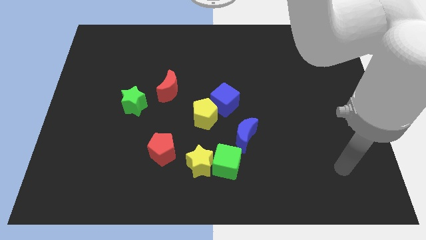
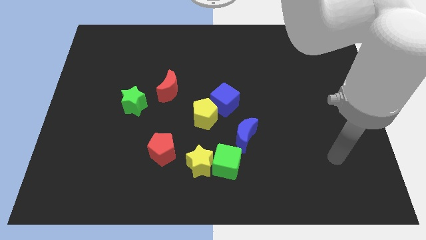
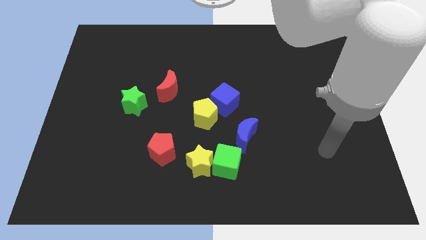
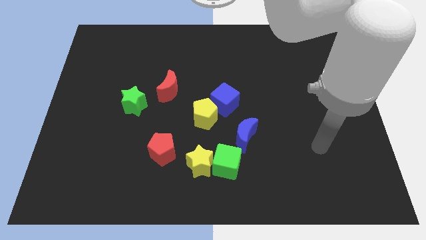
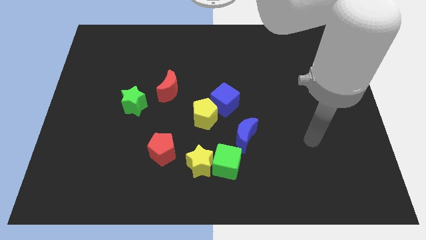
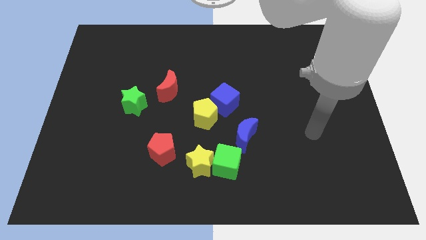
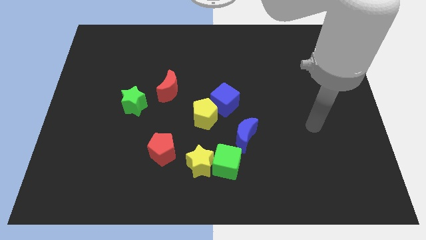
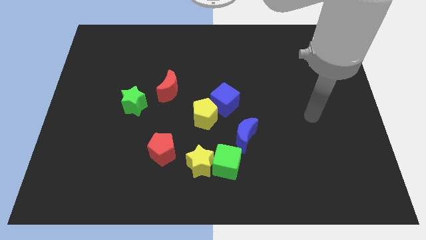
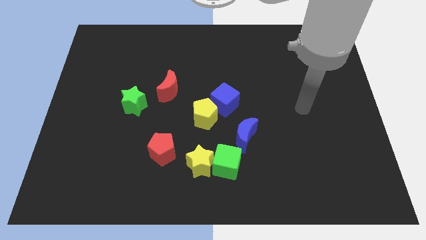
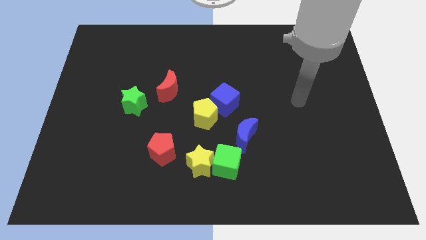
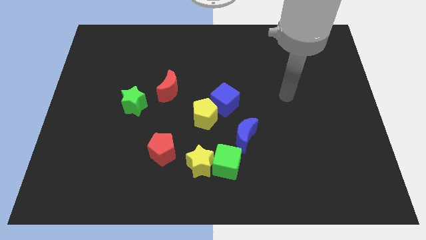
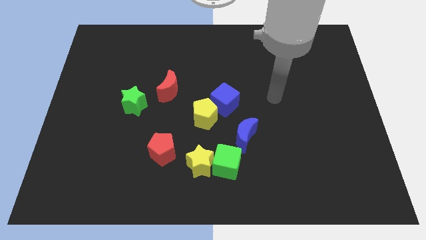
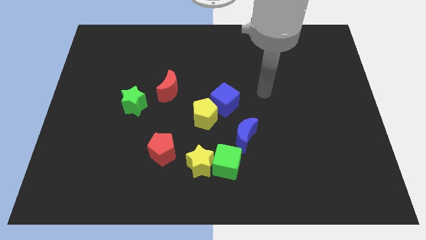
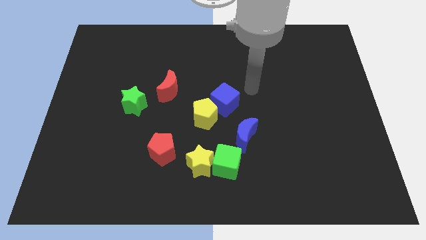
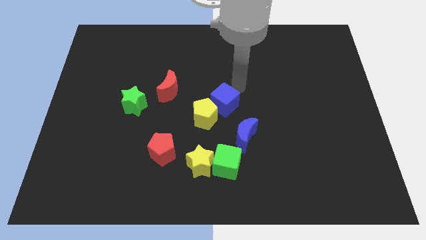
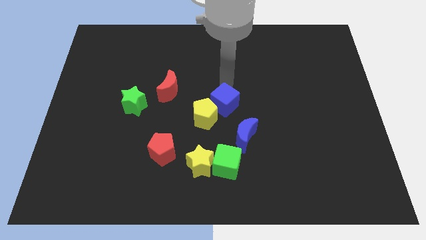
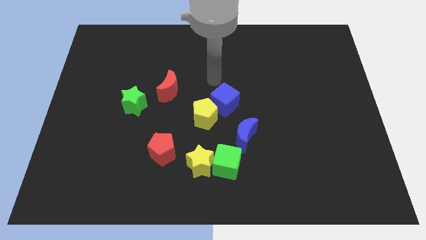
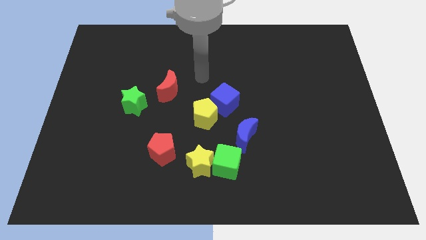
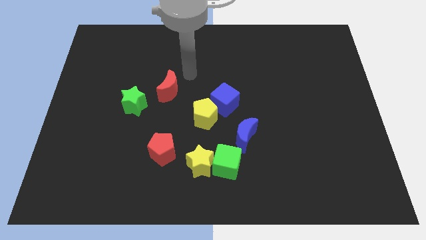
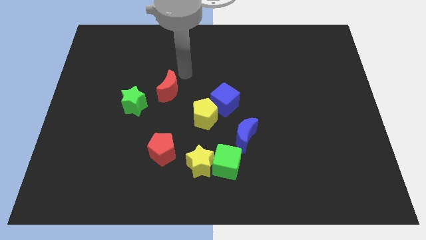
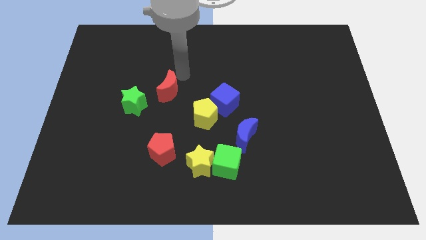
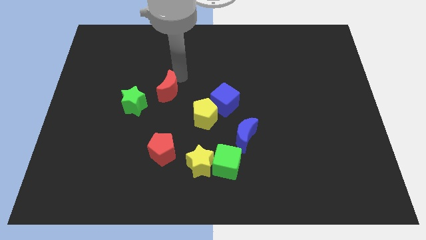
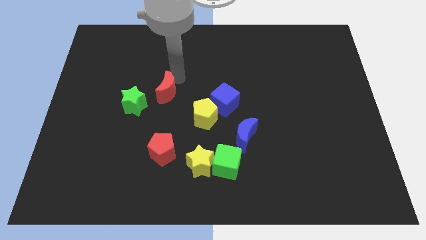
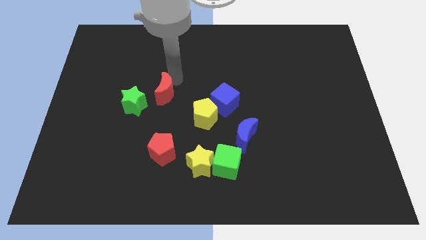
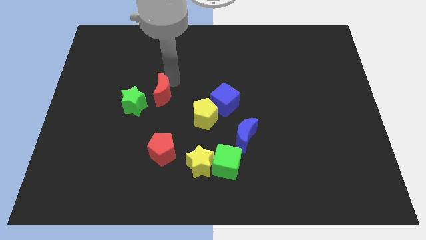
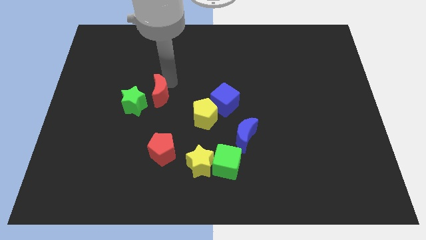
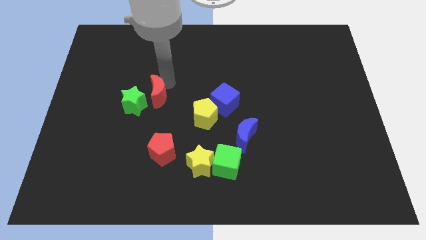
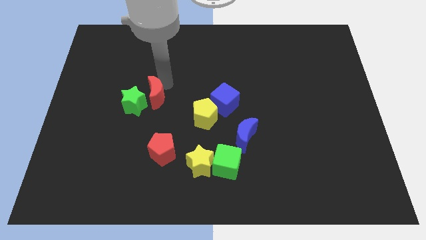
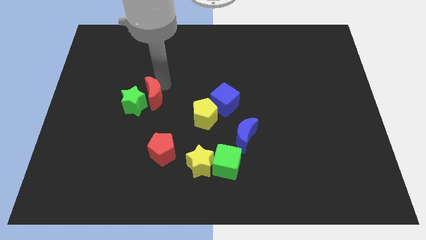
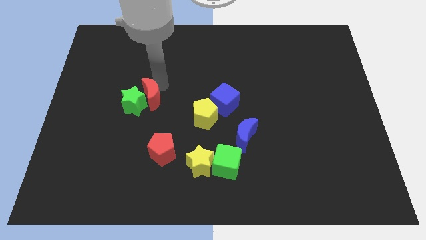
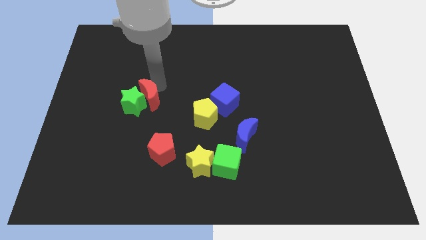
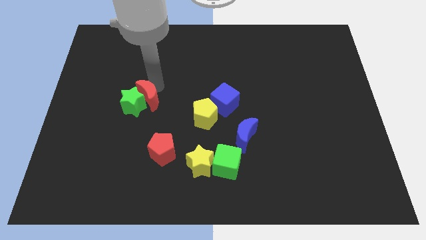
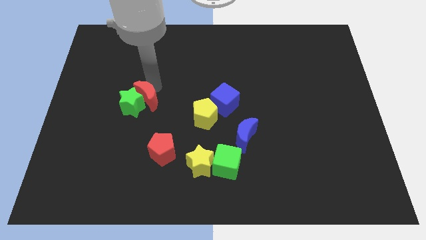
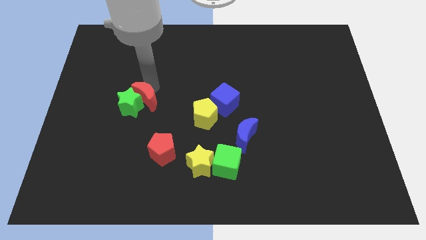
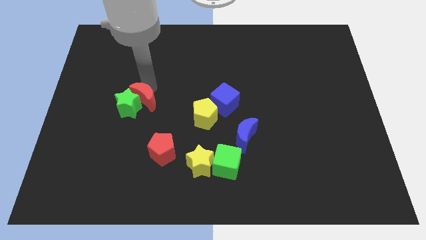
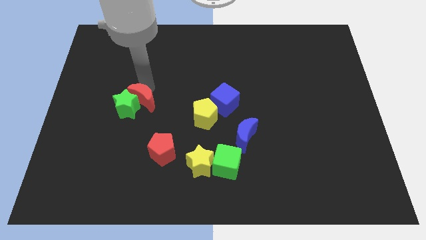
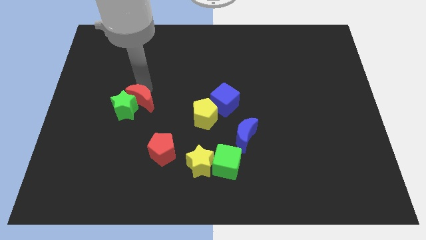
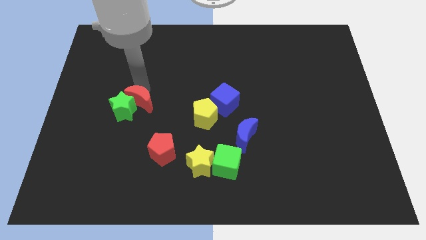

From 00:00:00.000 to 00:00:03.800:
push the red moon down and left somewhat

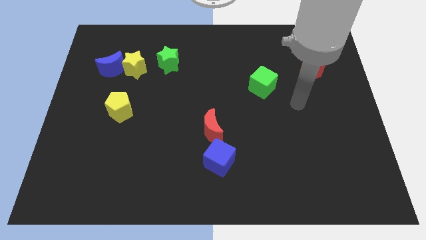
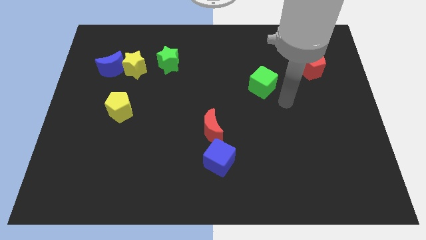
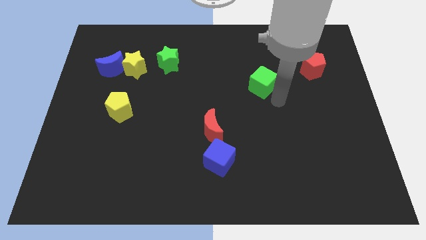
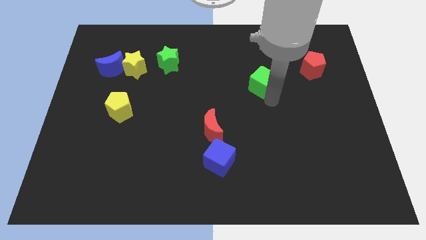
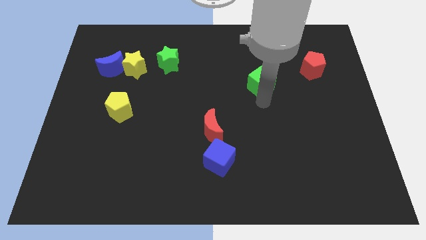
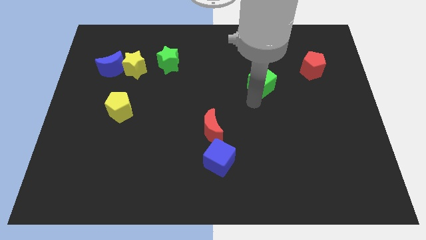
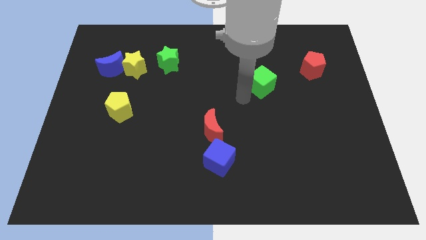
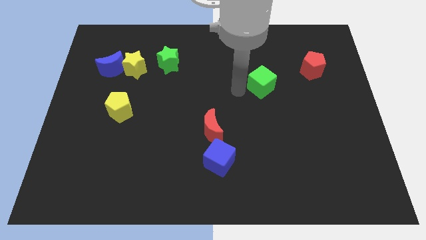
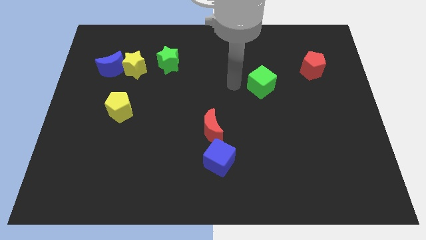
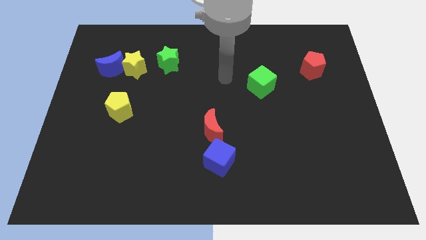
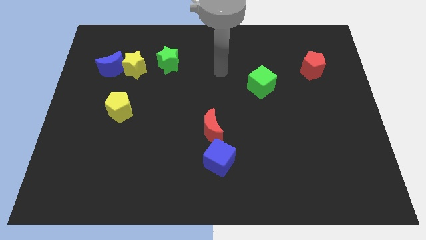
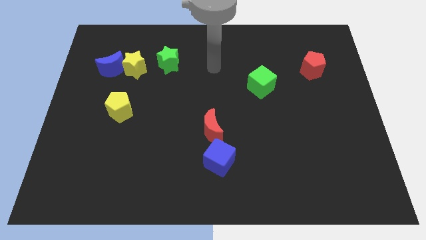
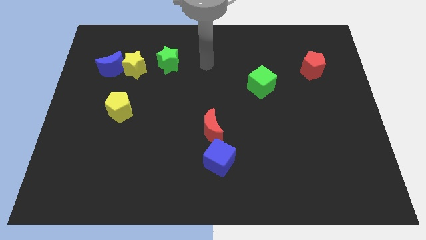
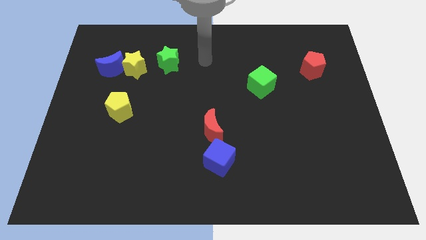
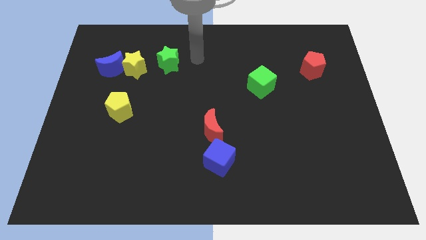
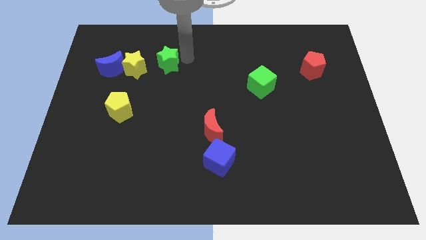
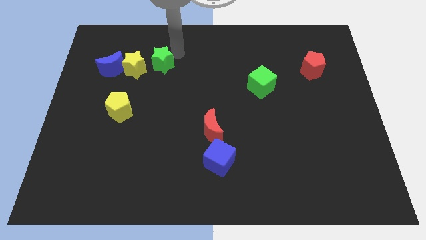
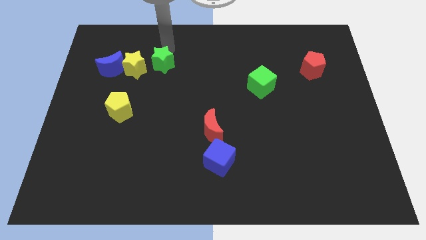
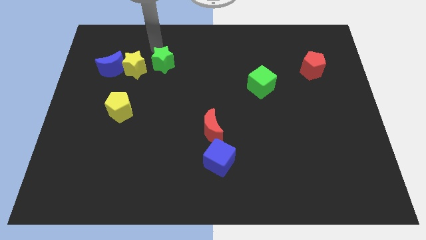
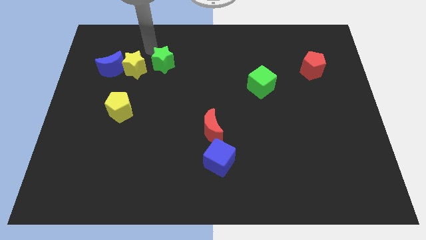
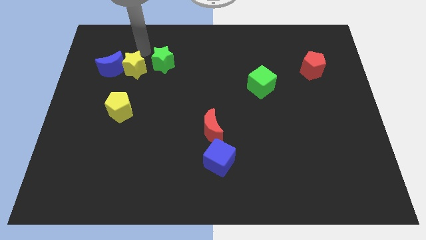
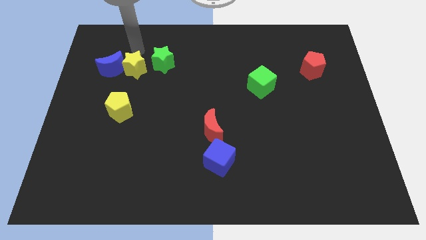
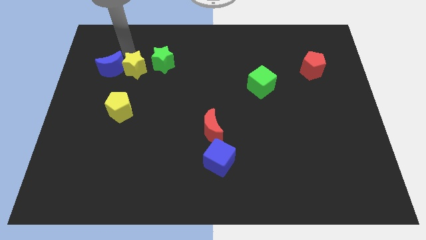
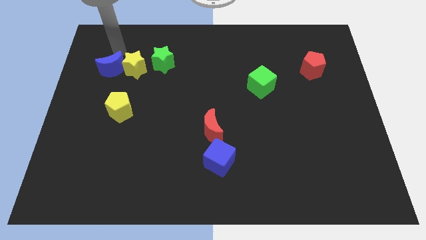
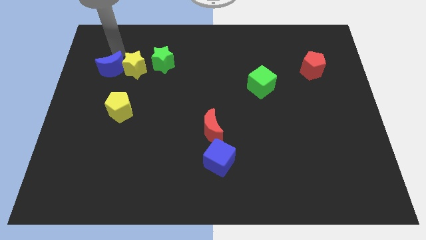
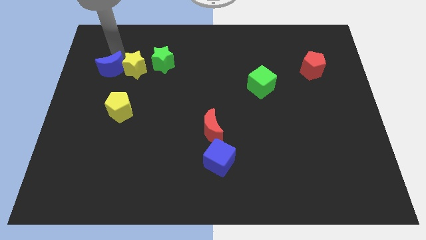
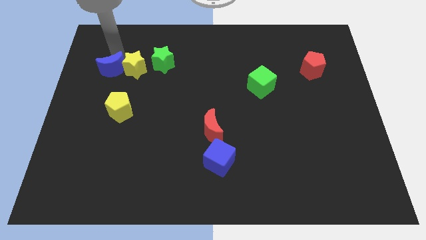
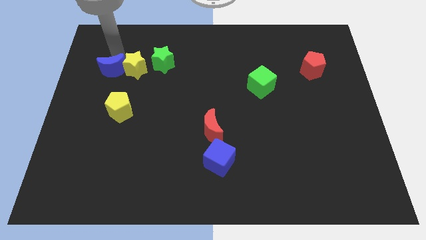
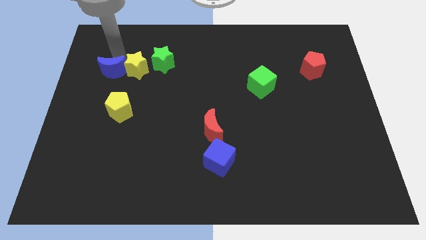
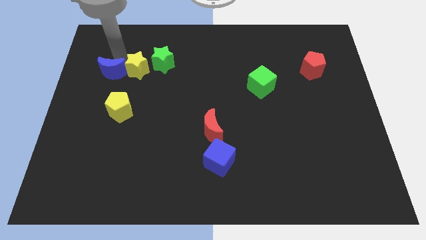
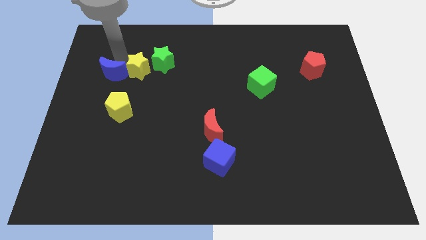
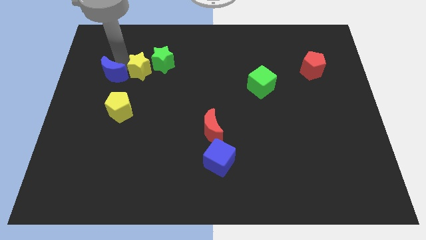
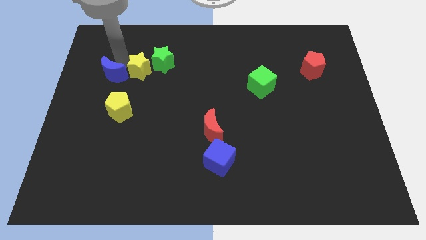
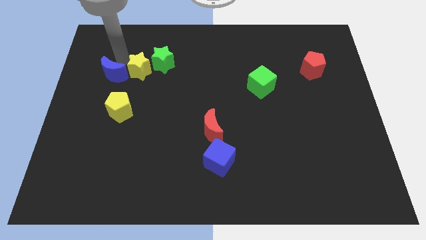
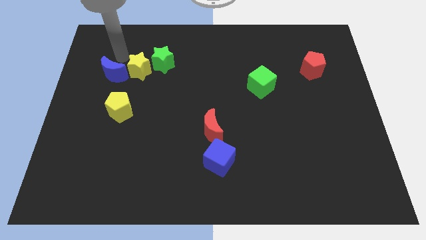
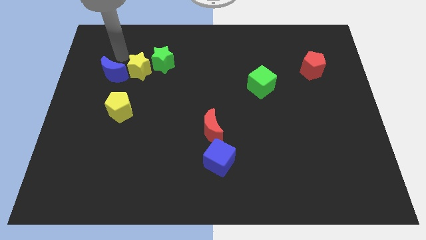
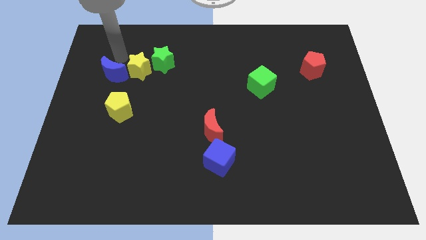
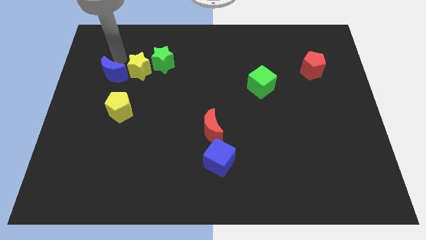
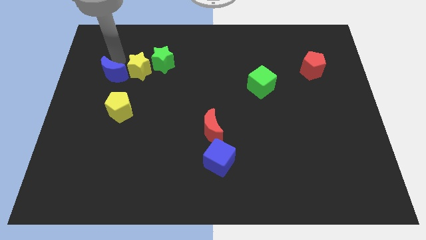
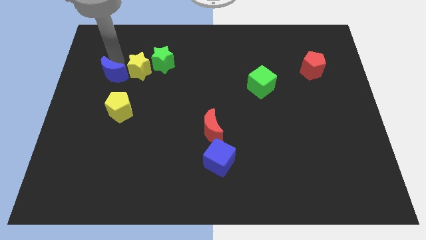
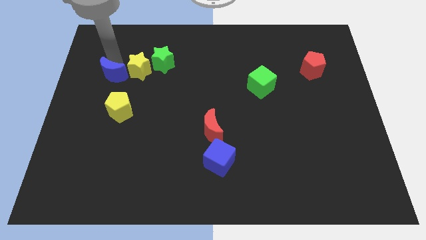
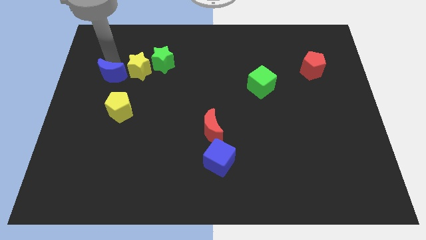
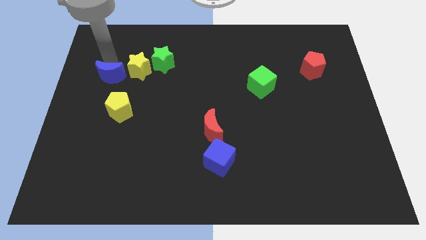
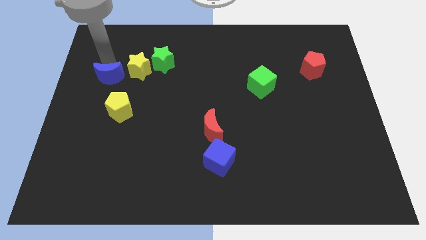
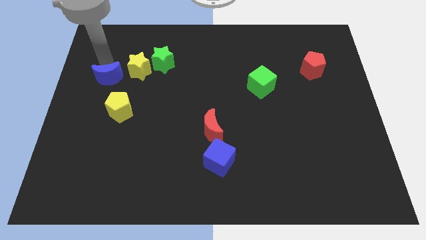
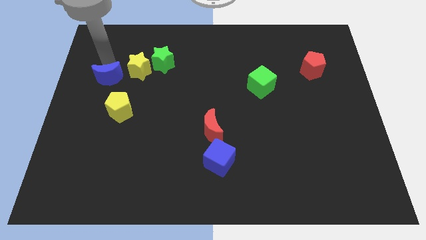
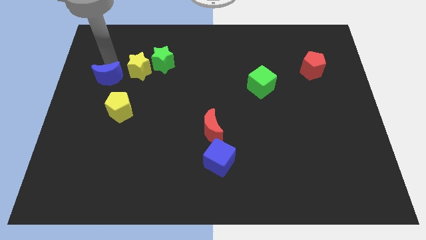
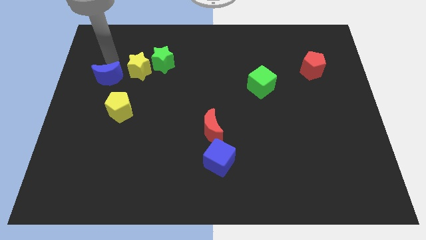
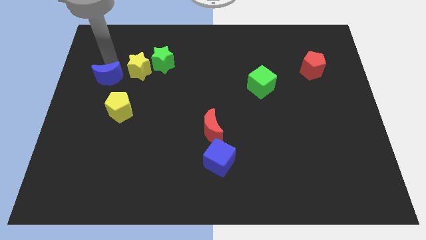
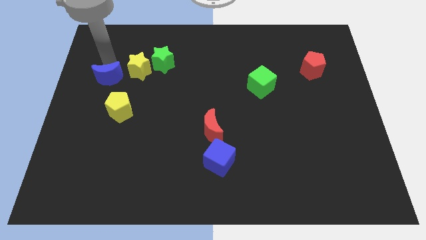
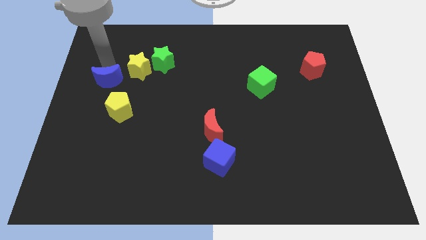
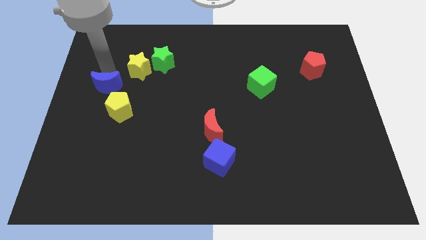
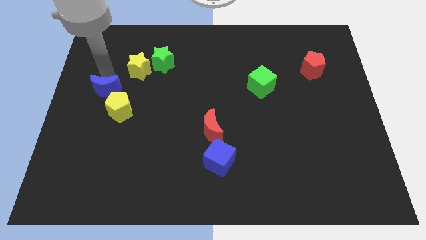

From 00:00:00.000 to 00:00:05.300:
move the blue moon a bit down
